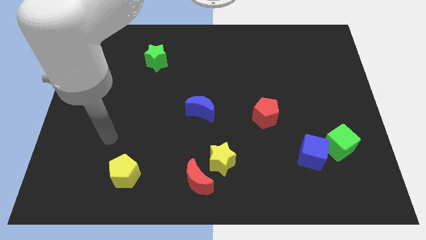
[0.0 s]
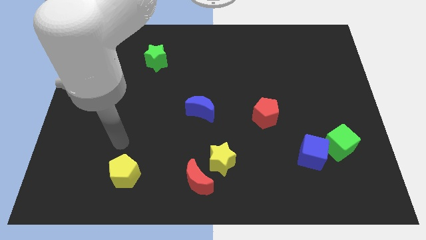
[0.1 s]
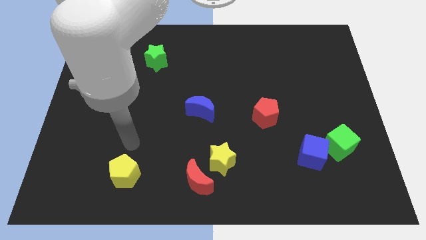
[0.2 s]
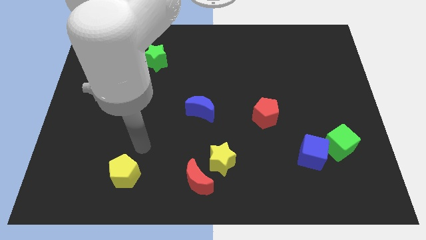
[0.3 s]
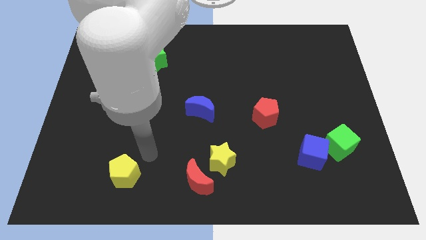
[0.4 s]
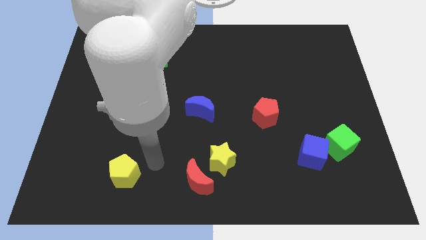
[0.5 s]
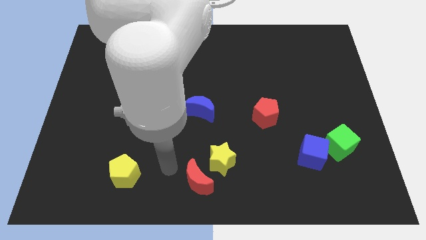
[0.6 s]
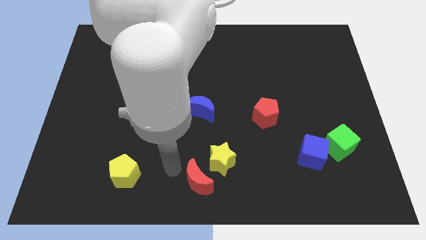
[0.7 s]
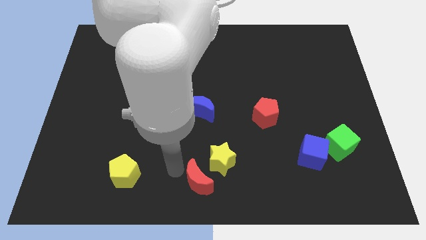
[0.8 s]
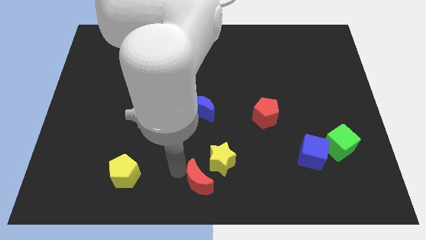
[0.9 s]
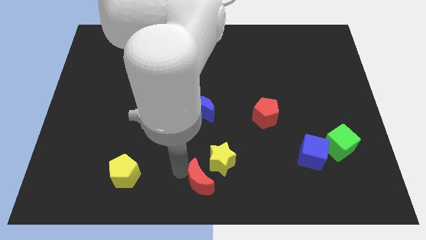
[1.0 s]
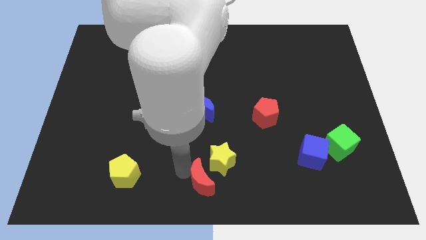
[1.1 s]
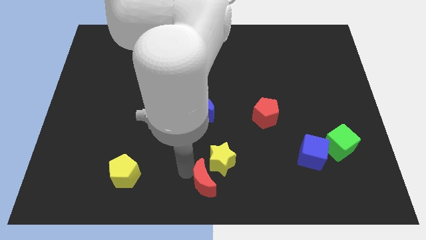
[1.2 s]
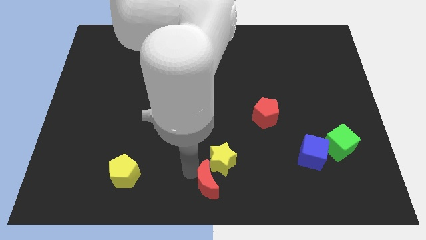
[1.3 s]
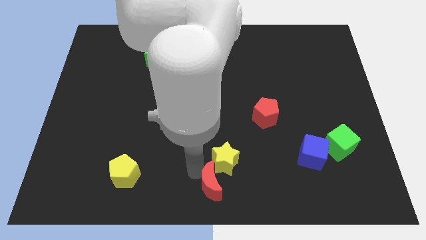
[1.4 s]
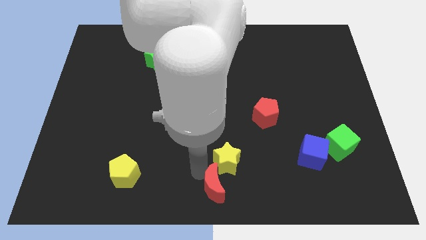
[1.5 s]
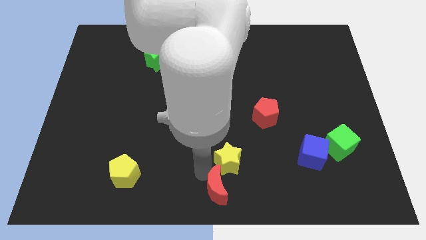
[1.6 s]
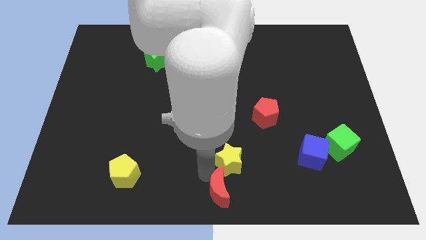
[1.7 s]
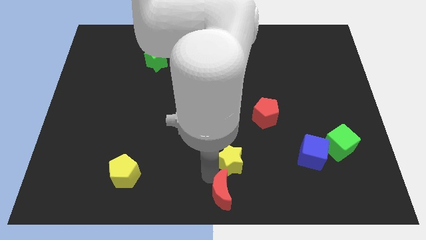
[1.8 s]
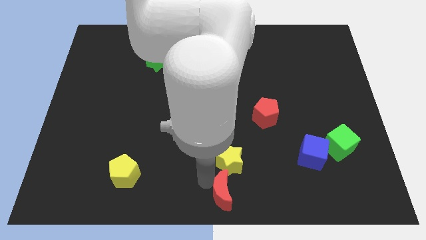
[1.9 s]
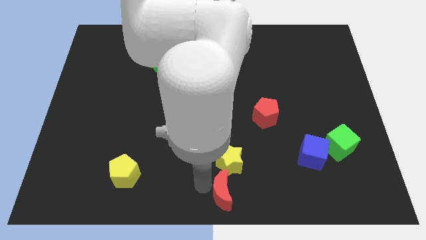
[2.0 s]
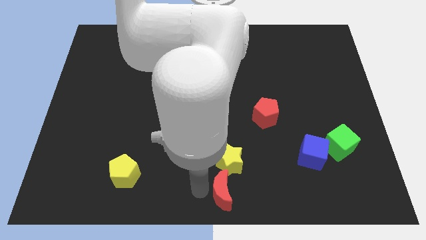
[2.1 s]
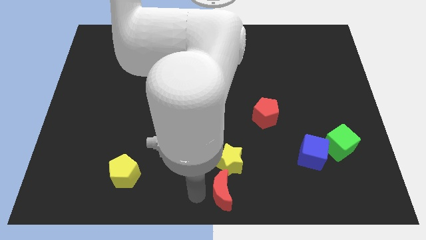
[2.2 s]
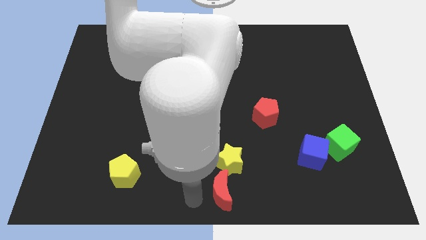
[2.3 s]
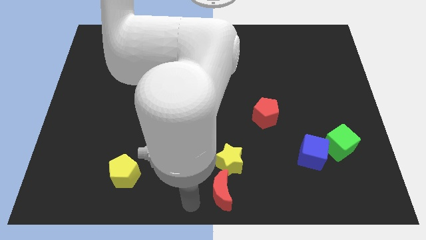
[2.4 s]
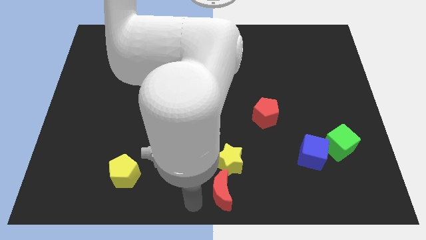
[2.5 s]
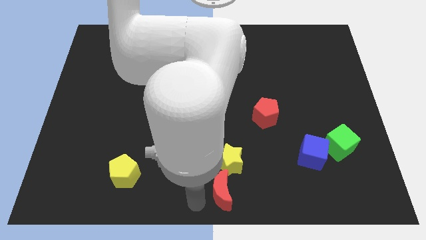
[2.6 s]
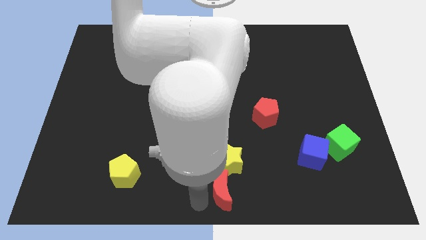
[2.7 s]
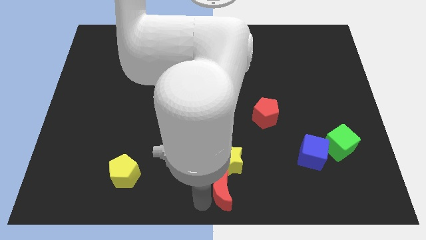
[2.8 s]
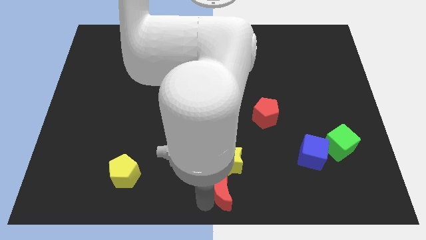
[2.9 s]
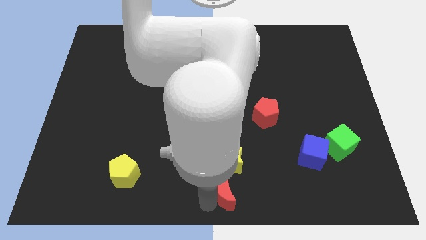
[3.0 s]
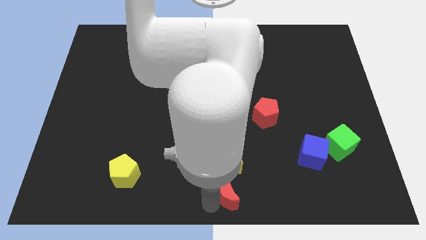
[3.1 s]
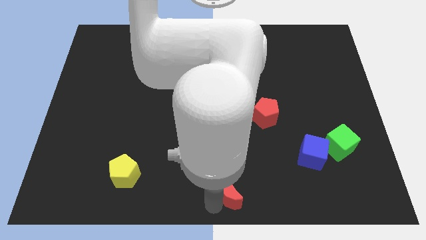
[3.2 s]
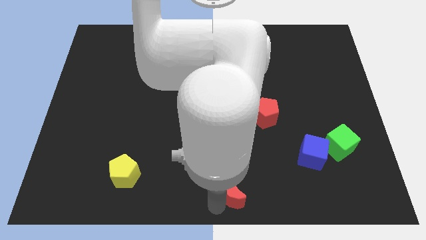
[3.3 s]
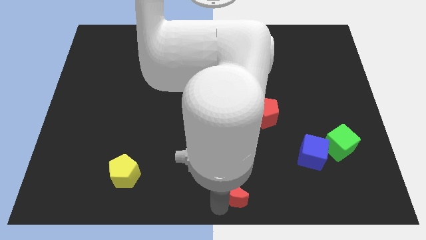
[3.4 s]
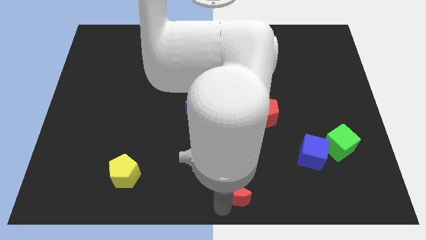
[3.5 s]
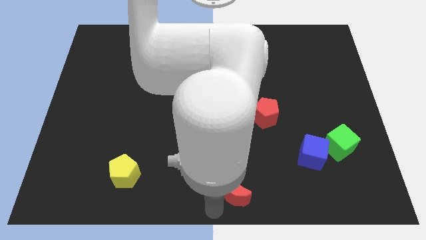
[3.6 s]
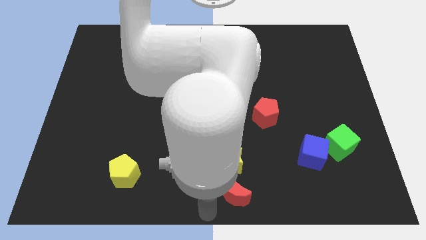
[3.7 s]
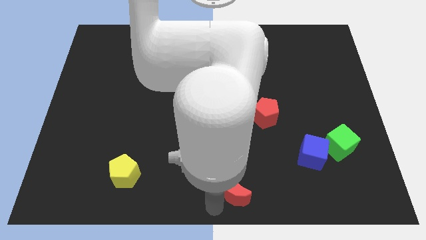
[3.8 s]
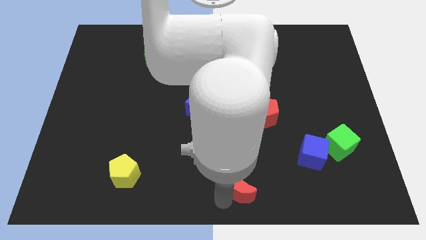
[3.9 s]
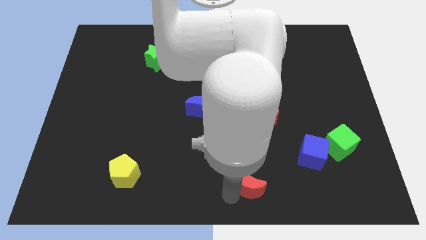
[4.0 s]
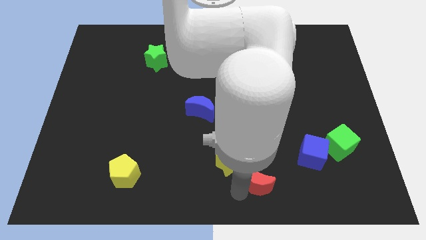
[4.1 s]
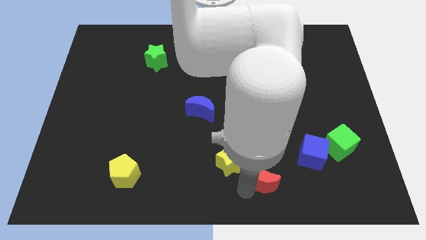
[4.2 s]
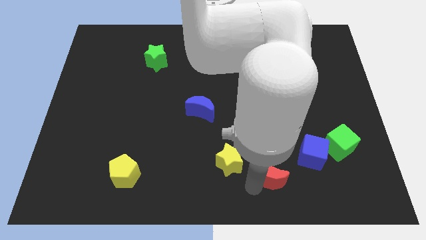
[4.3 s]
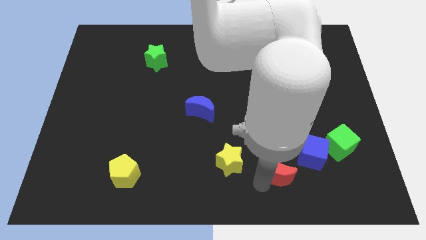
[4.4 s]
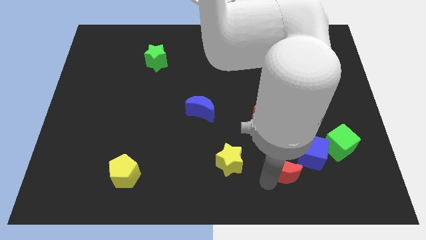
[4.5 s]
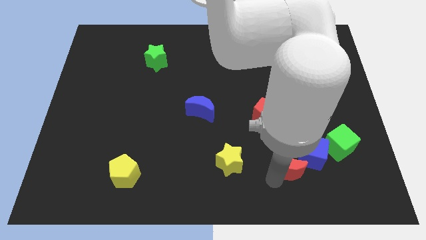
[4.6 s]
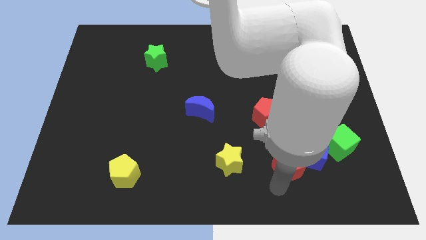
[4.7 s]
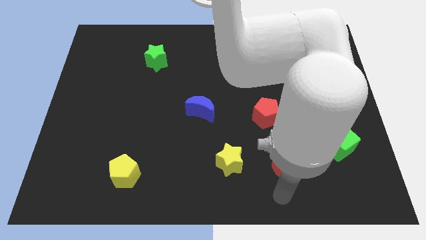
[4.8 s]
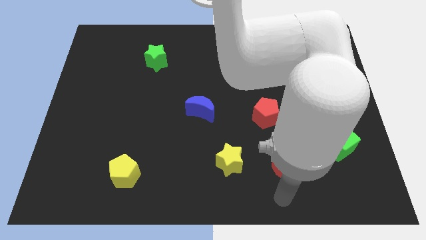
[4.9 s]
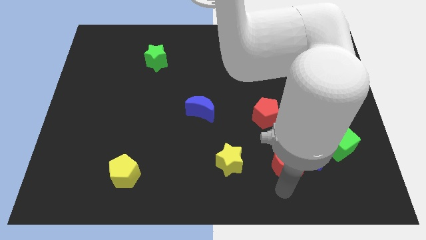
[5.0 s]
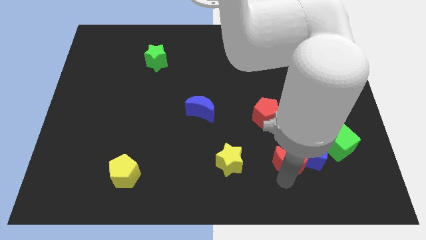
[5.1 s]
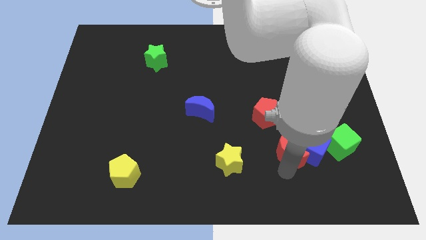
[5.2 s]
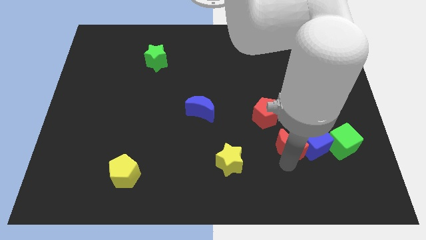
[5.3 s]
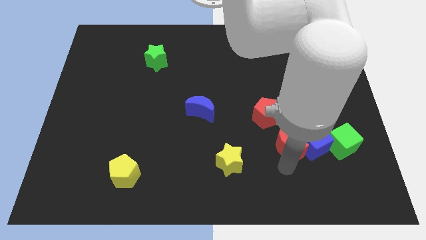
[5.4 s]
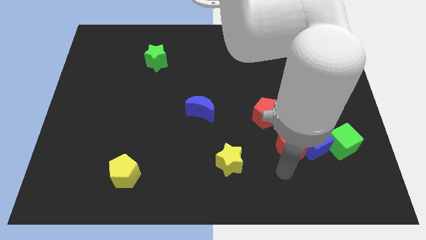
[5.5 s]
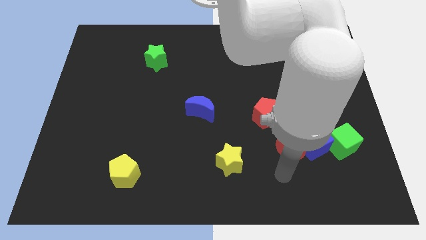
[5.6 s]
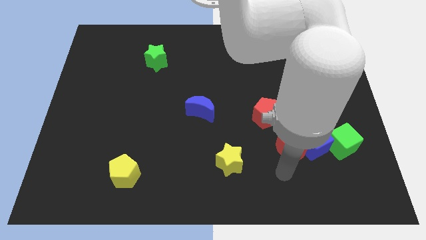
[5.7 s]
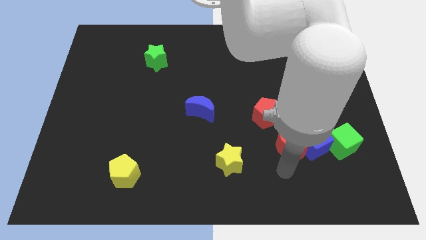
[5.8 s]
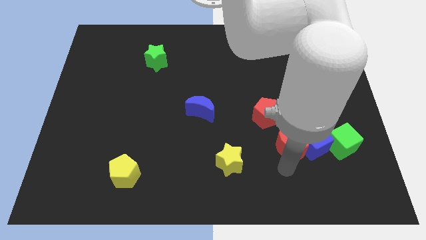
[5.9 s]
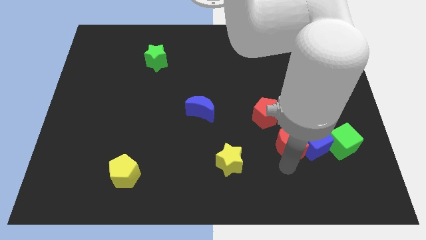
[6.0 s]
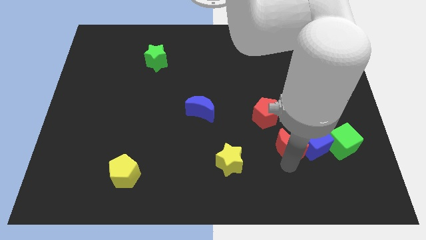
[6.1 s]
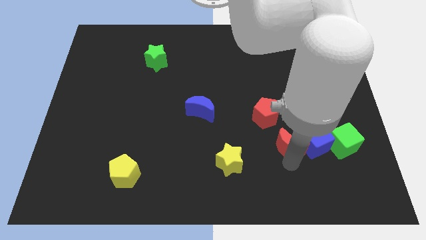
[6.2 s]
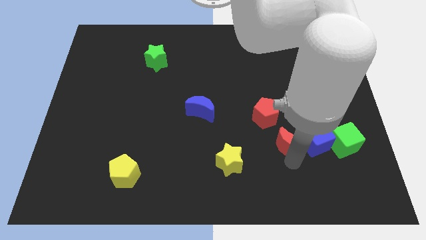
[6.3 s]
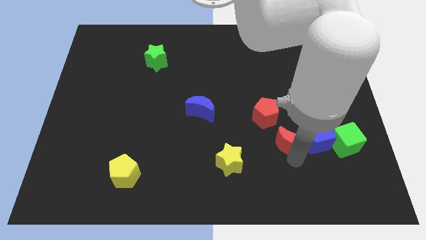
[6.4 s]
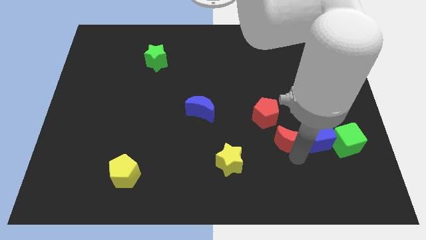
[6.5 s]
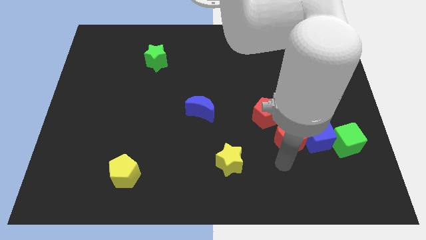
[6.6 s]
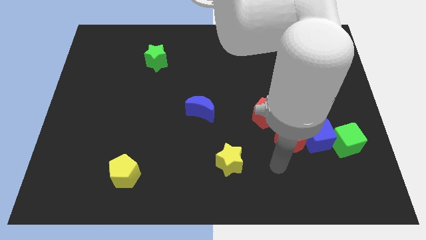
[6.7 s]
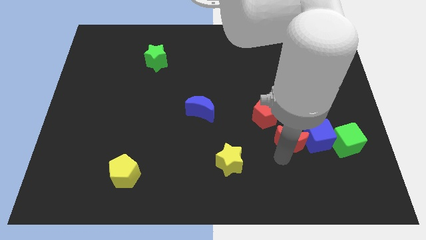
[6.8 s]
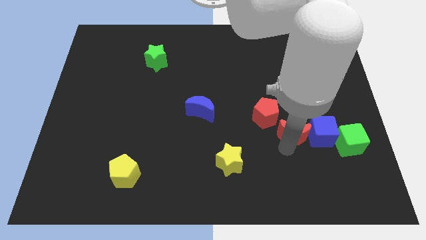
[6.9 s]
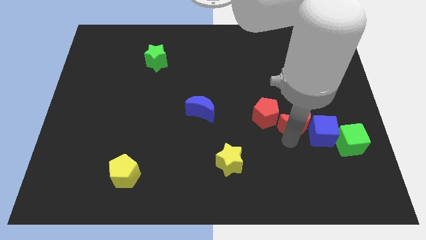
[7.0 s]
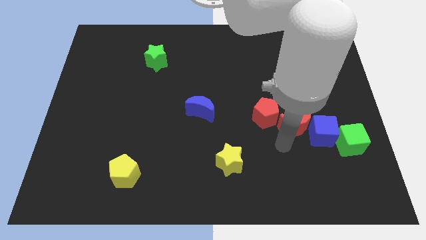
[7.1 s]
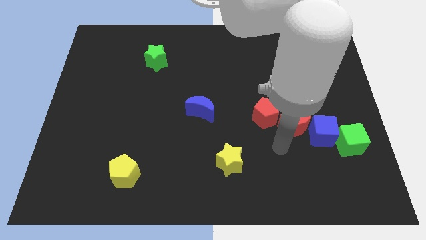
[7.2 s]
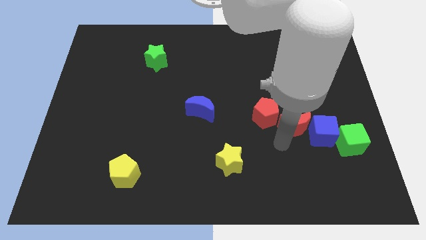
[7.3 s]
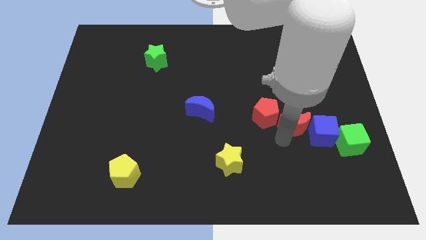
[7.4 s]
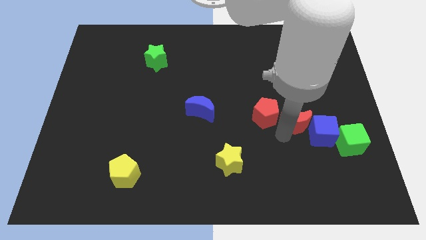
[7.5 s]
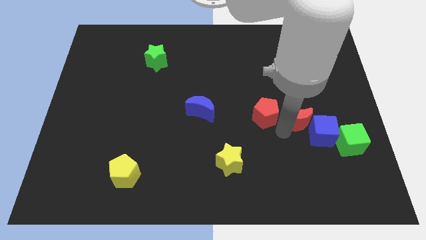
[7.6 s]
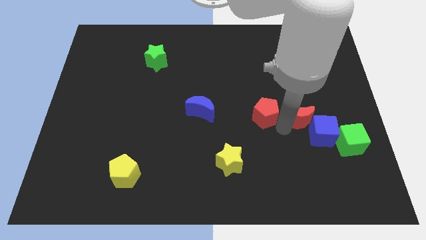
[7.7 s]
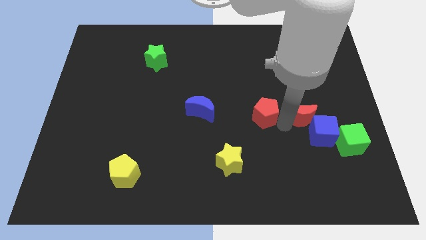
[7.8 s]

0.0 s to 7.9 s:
slide the red moon above the blue cube
